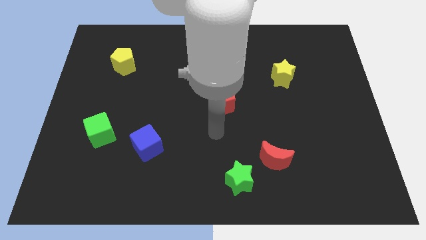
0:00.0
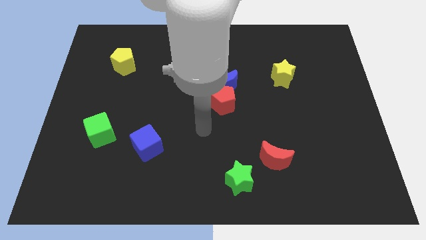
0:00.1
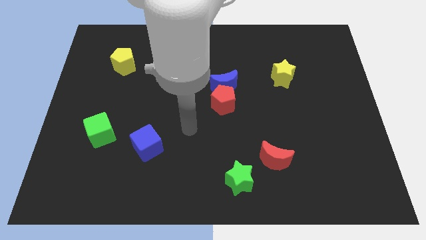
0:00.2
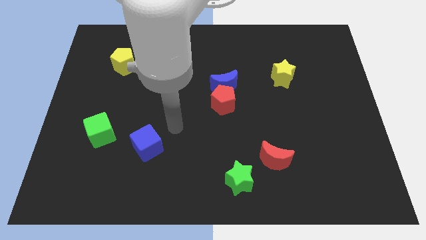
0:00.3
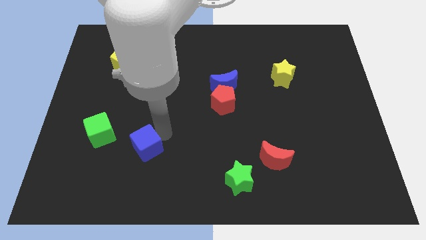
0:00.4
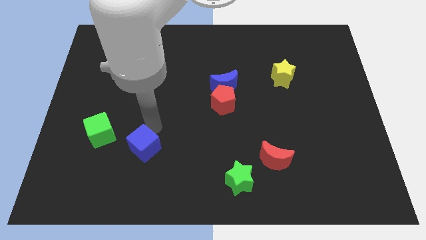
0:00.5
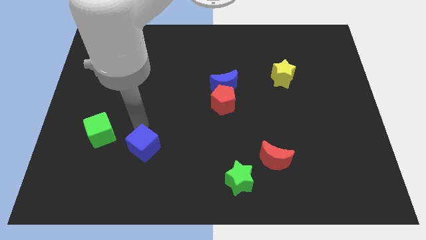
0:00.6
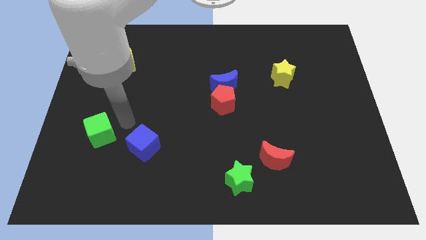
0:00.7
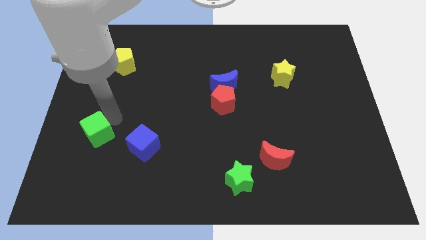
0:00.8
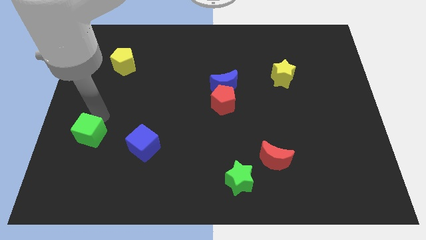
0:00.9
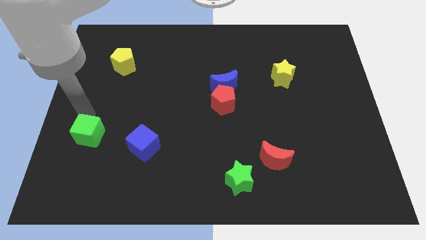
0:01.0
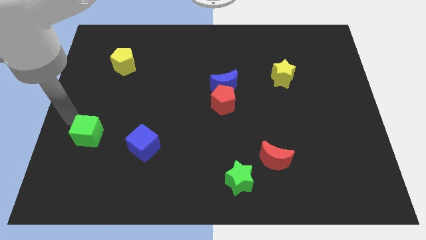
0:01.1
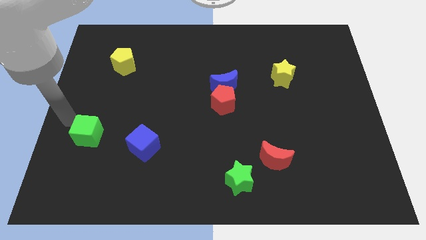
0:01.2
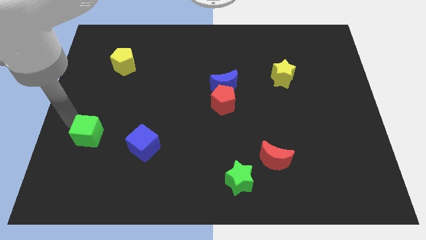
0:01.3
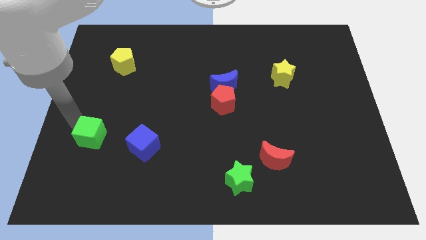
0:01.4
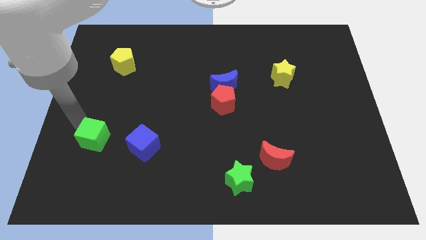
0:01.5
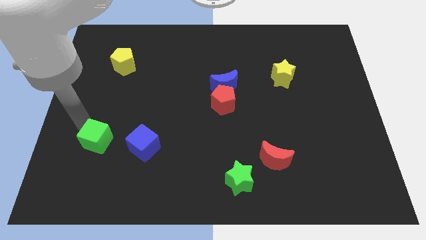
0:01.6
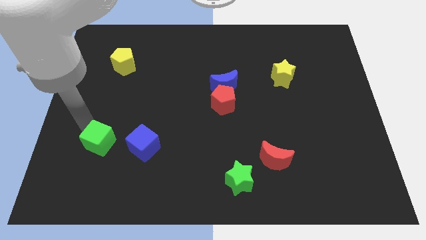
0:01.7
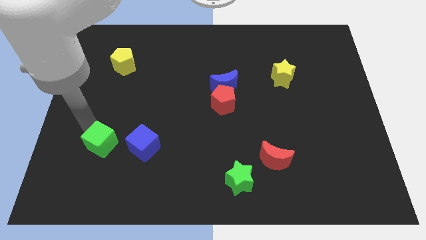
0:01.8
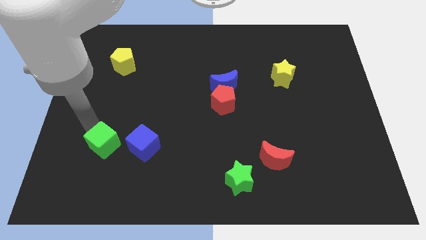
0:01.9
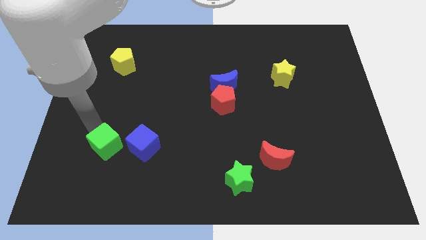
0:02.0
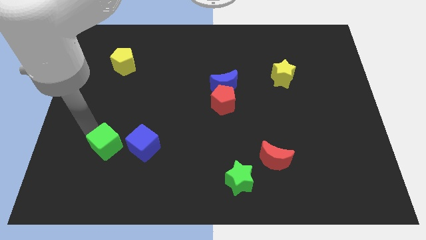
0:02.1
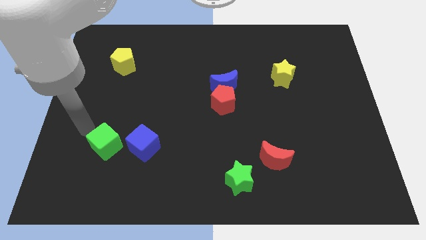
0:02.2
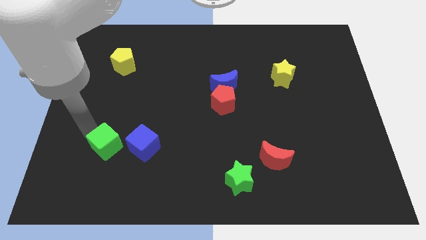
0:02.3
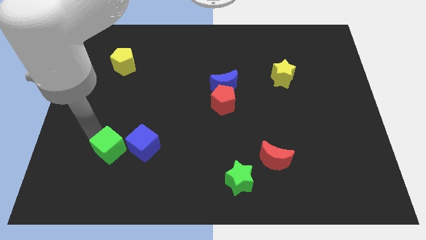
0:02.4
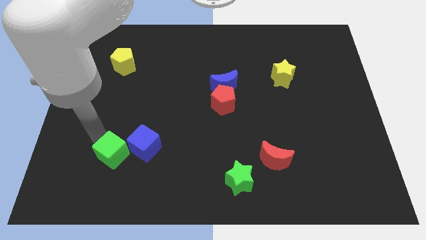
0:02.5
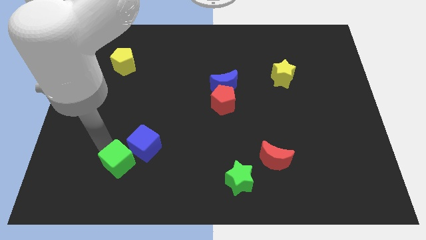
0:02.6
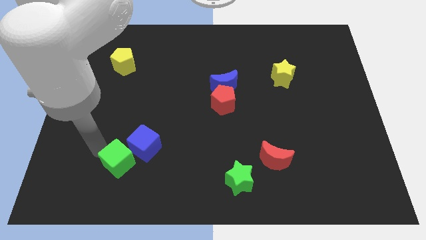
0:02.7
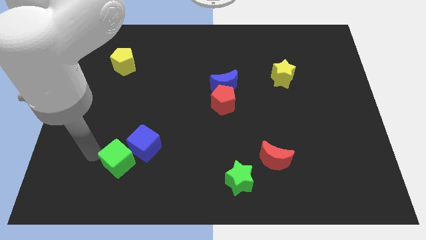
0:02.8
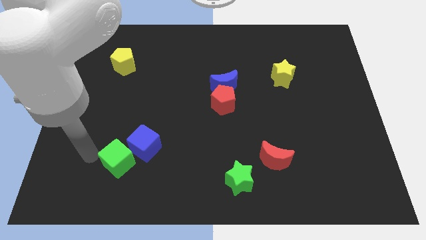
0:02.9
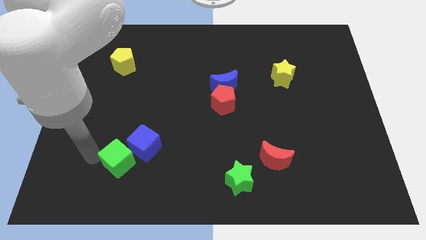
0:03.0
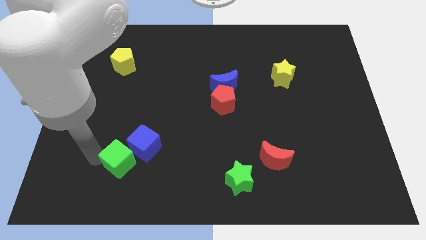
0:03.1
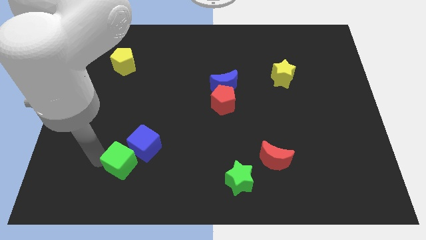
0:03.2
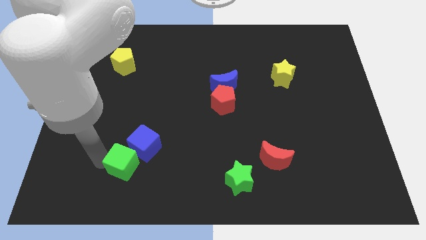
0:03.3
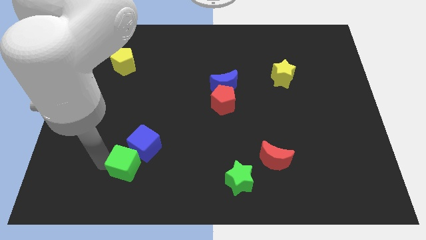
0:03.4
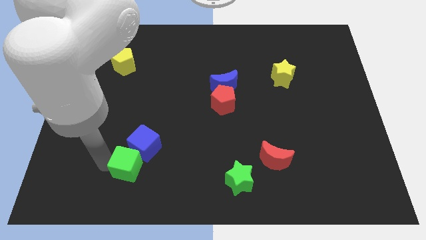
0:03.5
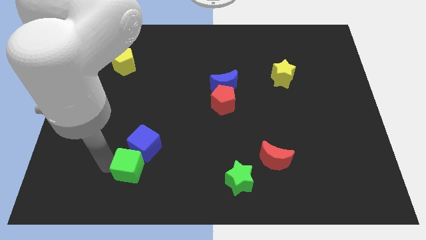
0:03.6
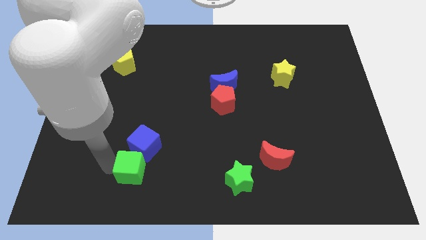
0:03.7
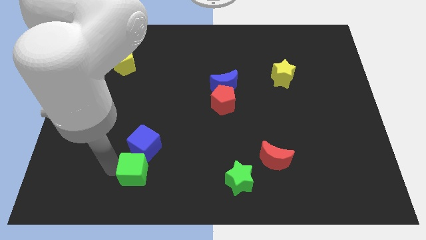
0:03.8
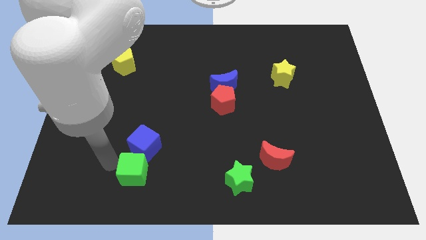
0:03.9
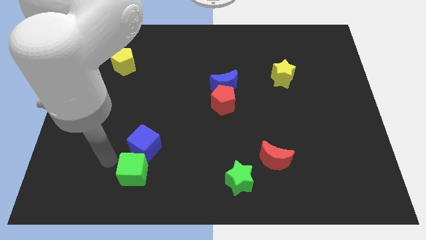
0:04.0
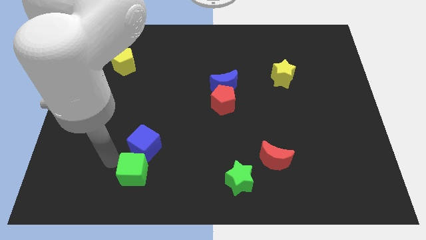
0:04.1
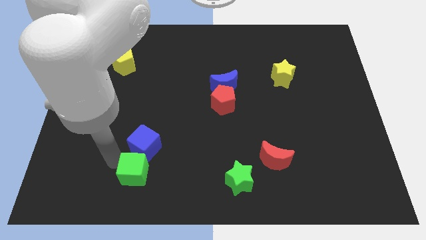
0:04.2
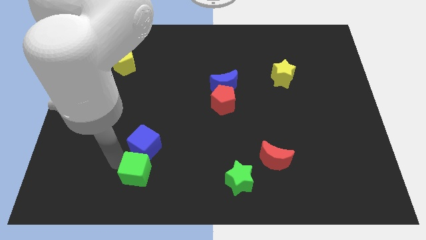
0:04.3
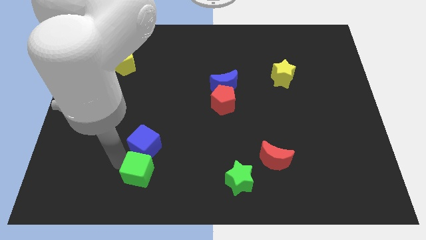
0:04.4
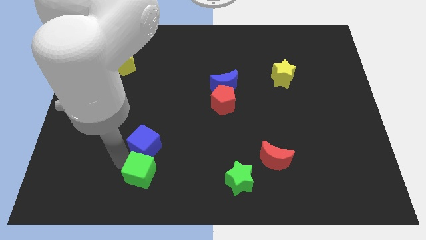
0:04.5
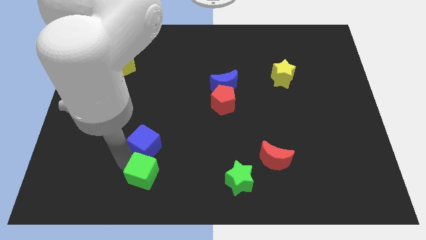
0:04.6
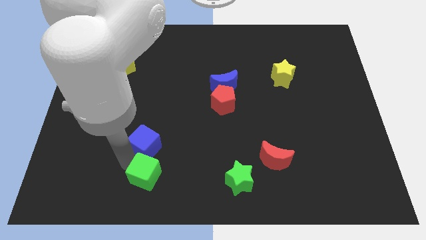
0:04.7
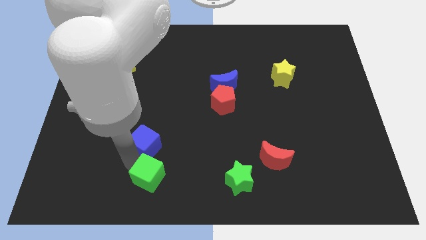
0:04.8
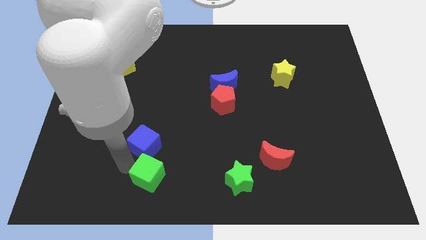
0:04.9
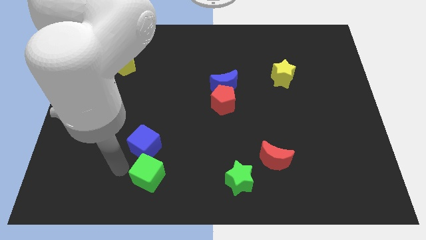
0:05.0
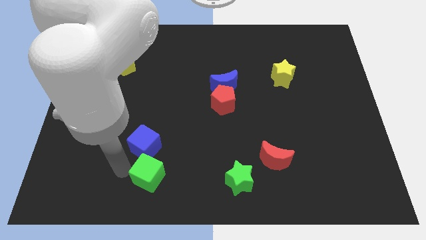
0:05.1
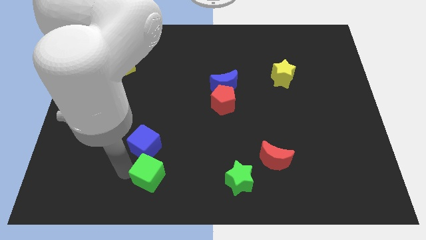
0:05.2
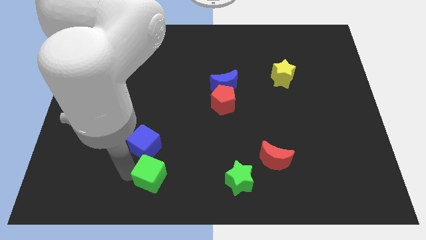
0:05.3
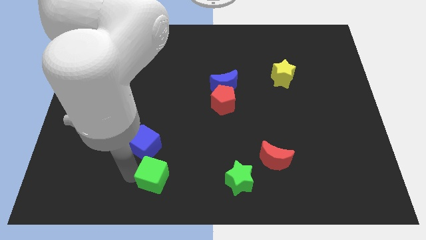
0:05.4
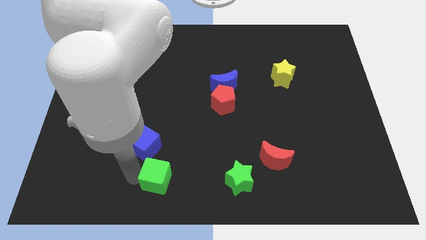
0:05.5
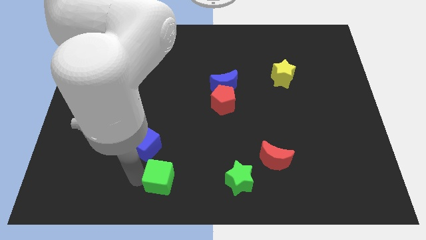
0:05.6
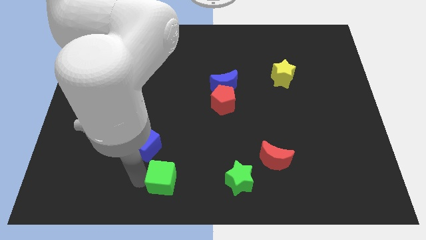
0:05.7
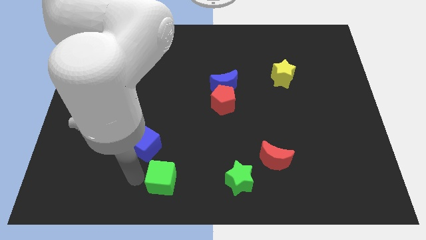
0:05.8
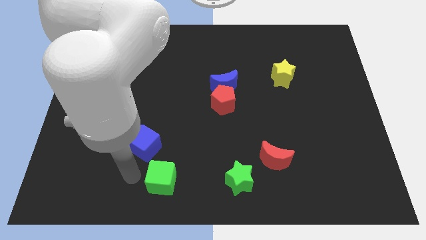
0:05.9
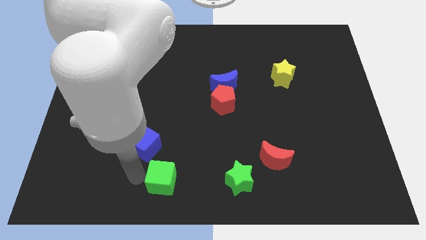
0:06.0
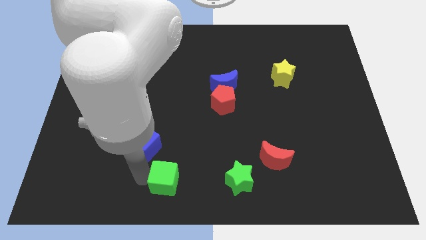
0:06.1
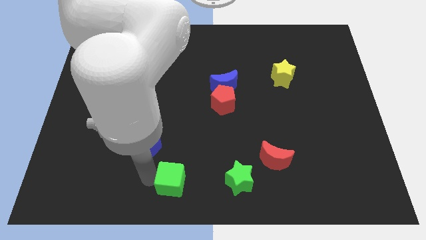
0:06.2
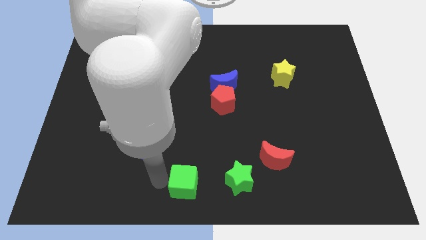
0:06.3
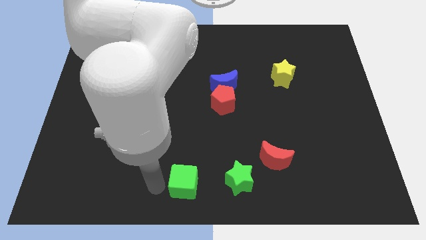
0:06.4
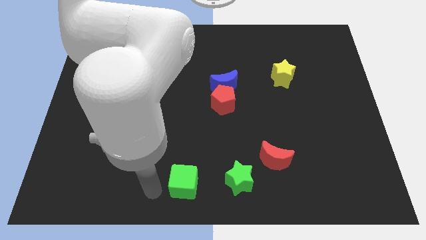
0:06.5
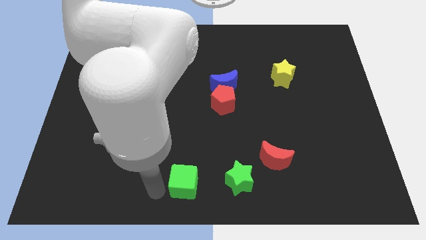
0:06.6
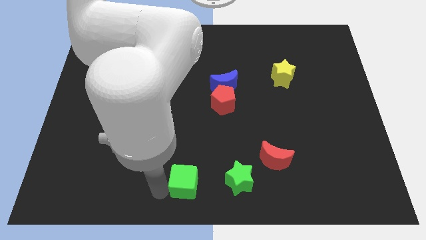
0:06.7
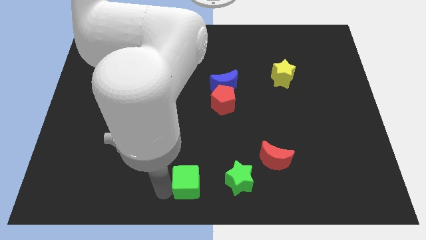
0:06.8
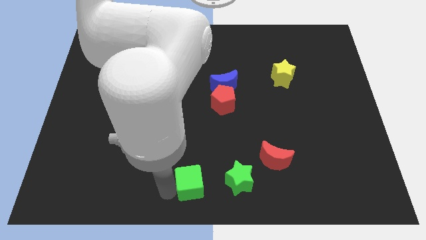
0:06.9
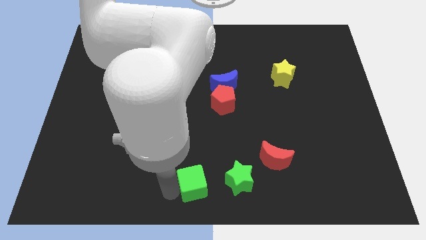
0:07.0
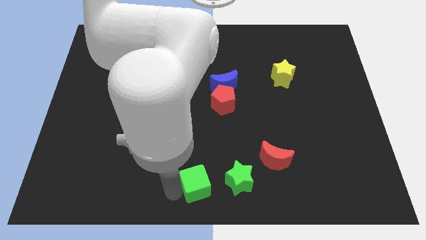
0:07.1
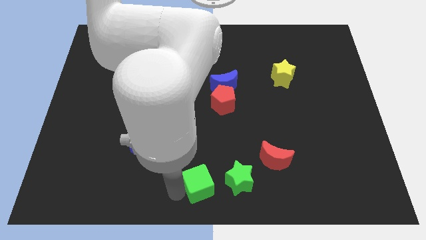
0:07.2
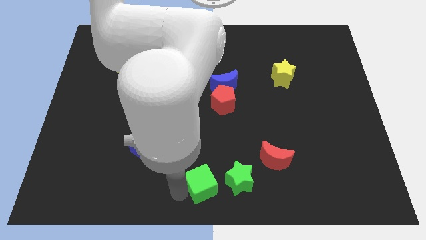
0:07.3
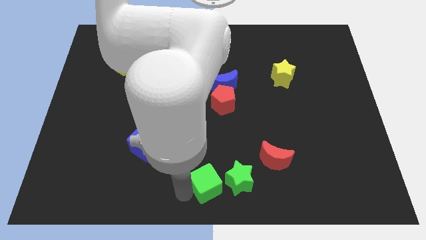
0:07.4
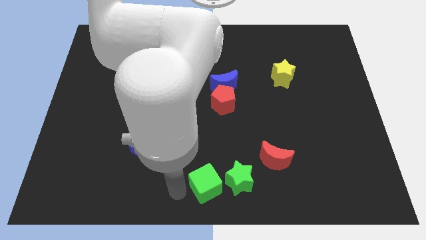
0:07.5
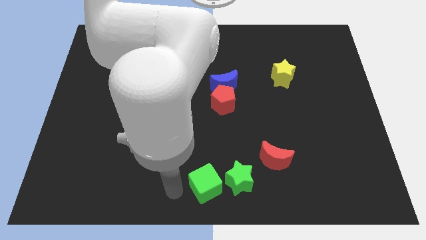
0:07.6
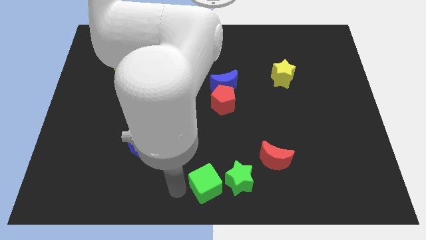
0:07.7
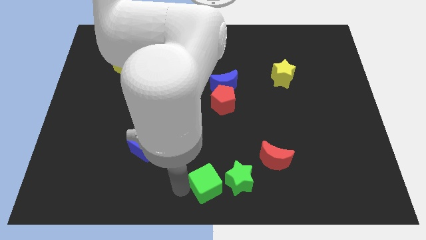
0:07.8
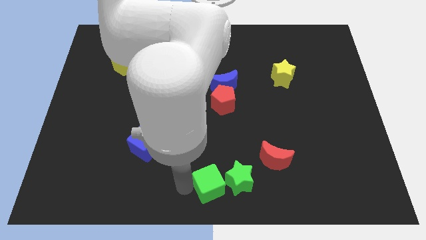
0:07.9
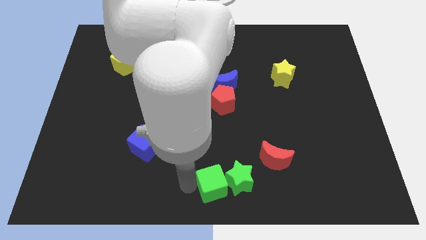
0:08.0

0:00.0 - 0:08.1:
put the green cube to the green star
